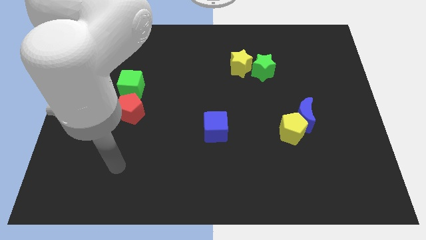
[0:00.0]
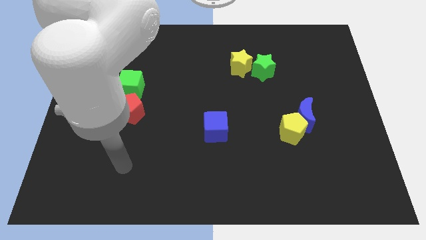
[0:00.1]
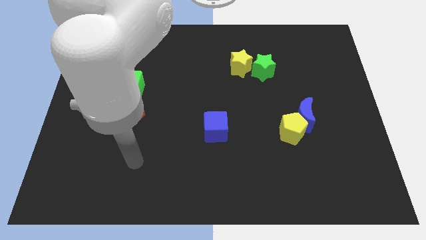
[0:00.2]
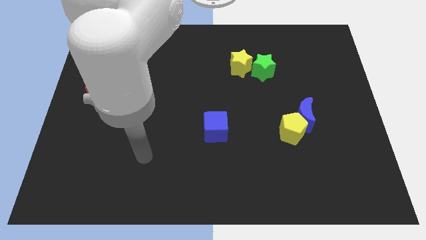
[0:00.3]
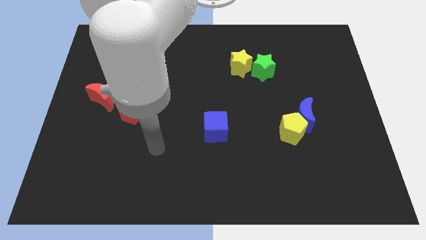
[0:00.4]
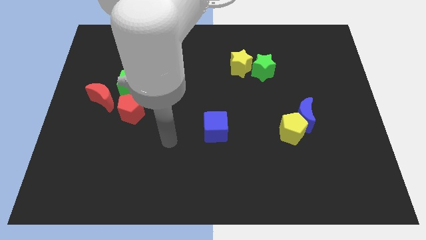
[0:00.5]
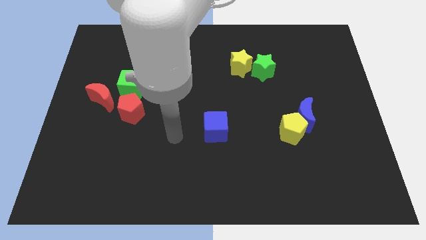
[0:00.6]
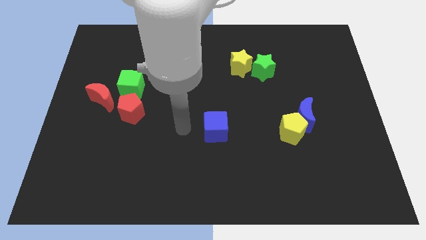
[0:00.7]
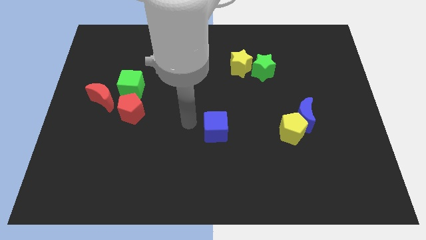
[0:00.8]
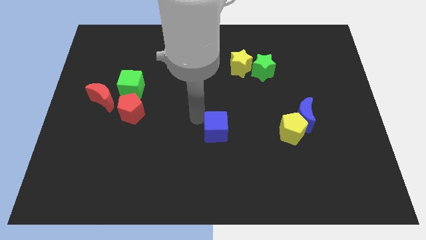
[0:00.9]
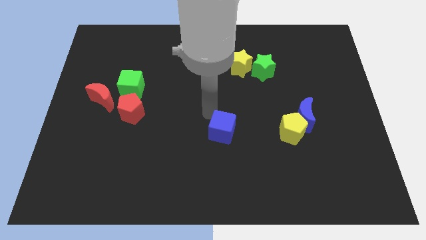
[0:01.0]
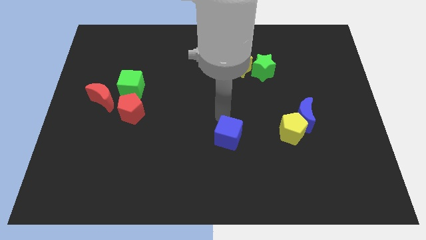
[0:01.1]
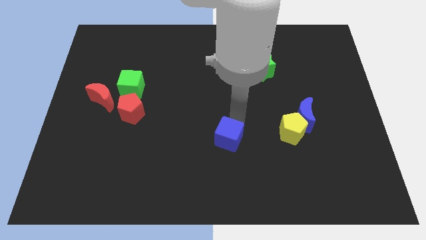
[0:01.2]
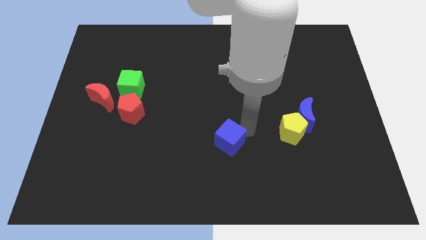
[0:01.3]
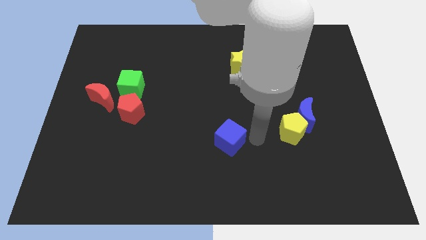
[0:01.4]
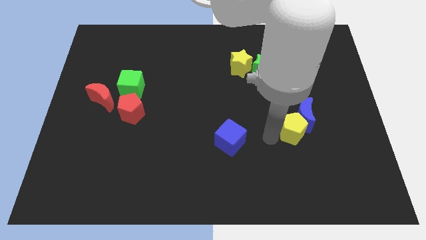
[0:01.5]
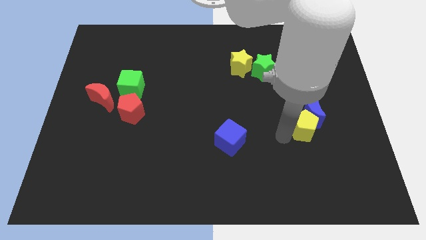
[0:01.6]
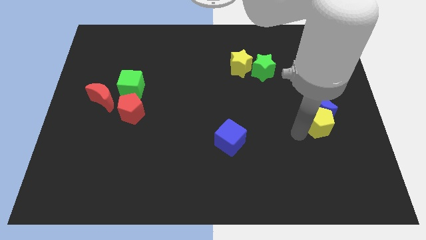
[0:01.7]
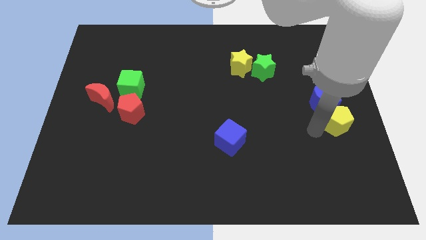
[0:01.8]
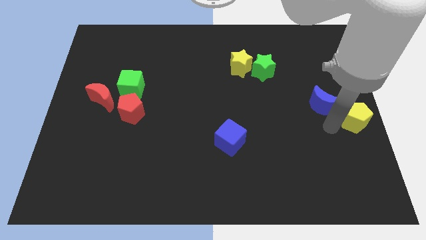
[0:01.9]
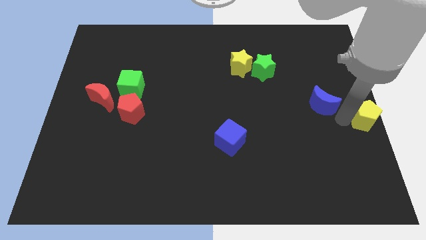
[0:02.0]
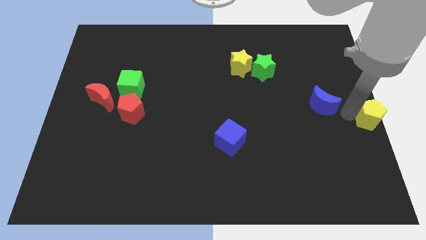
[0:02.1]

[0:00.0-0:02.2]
separate the blue moon from the yellow pentagon

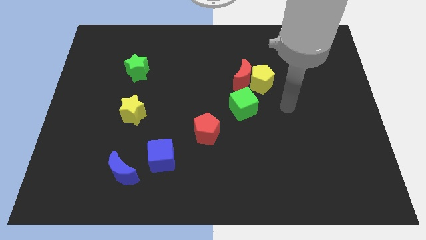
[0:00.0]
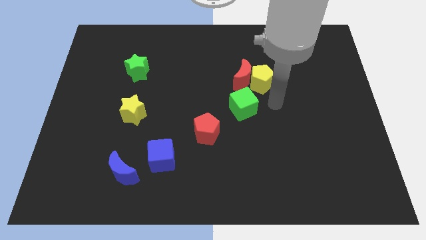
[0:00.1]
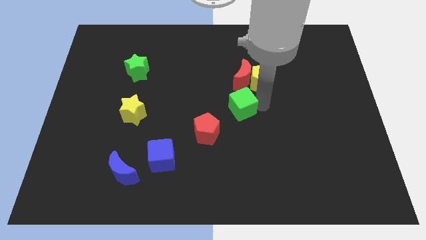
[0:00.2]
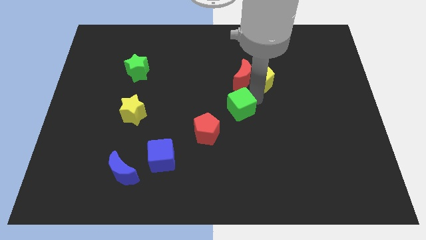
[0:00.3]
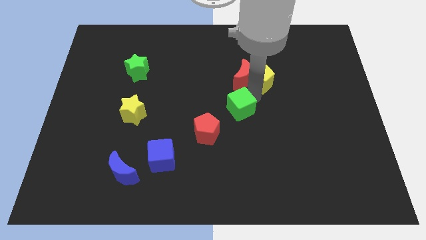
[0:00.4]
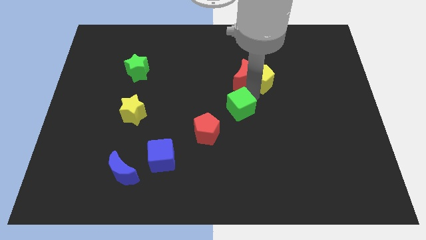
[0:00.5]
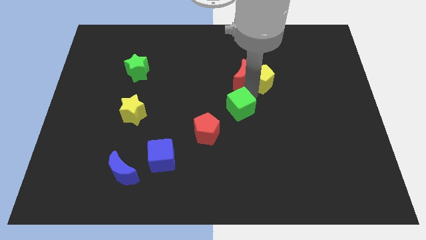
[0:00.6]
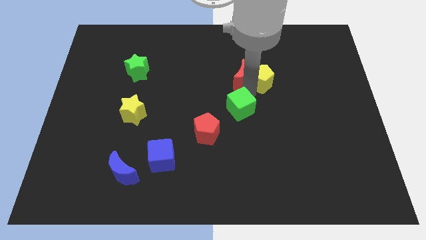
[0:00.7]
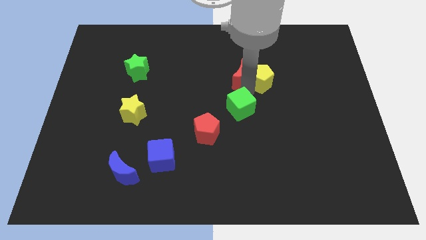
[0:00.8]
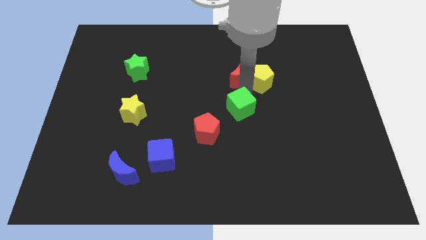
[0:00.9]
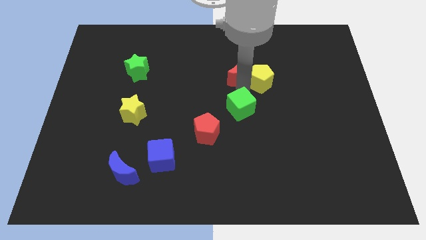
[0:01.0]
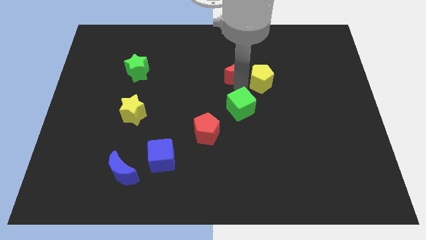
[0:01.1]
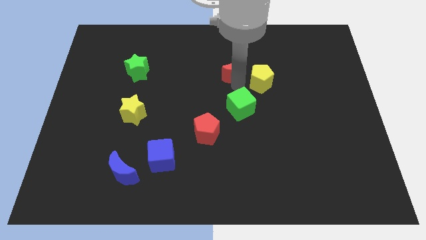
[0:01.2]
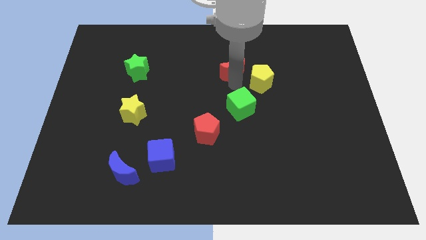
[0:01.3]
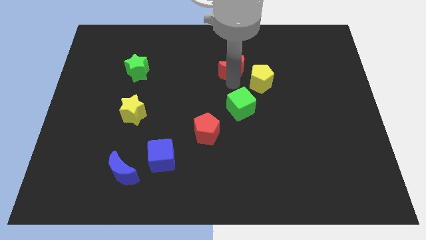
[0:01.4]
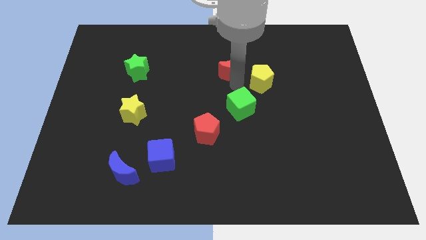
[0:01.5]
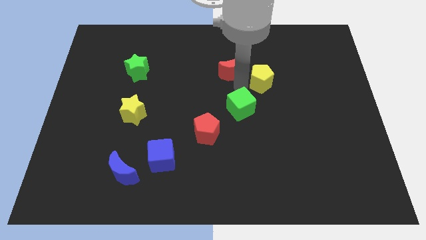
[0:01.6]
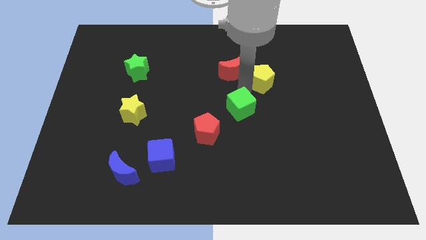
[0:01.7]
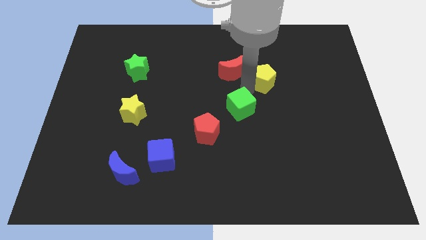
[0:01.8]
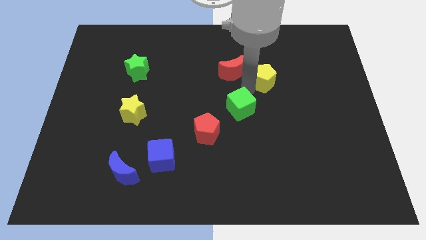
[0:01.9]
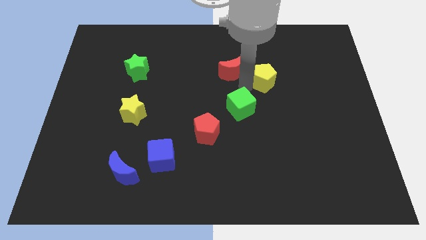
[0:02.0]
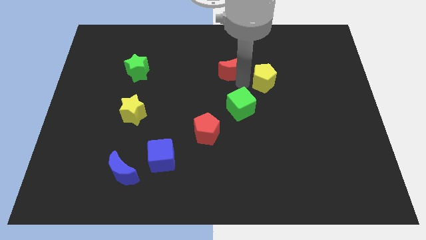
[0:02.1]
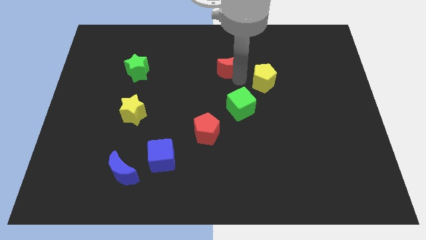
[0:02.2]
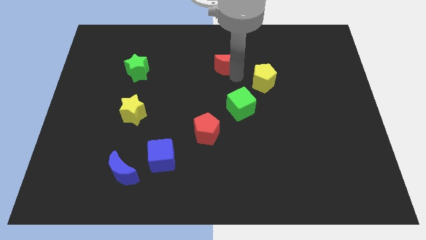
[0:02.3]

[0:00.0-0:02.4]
pull the red moon apart from the yellow pentagon and green cube

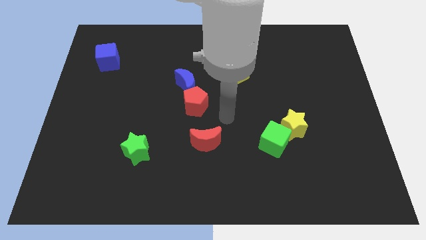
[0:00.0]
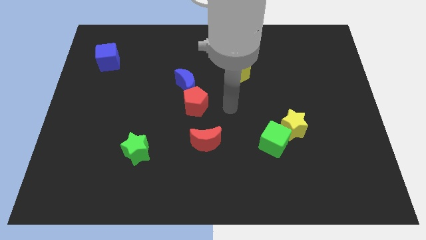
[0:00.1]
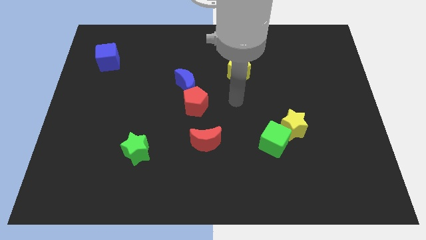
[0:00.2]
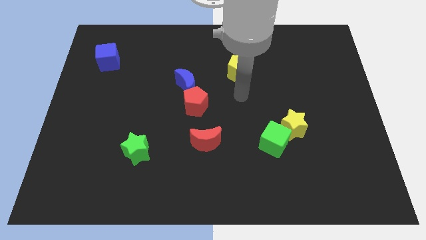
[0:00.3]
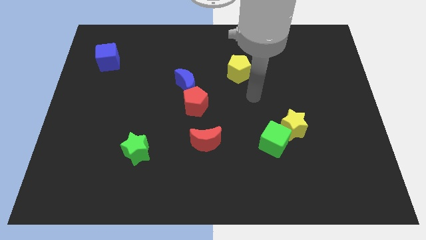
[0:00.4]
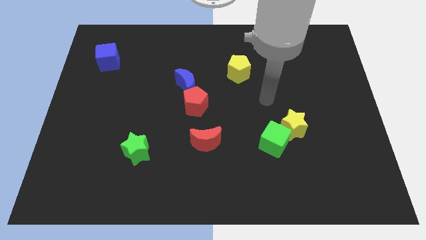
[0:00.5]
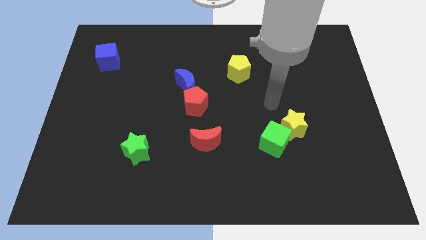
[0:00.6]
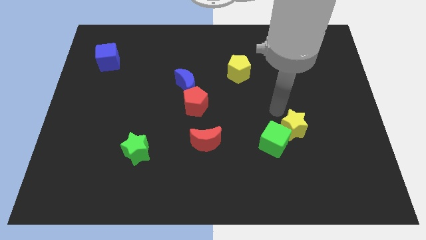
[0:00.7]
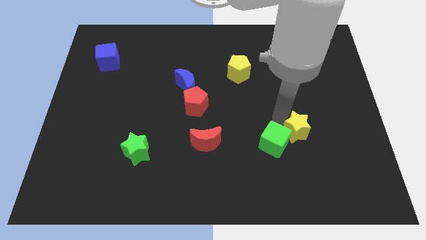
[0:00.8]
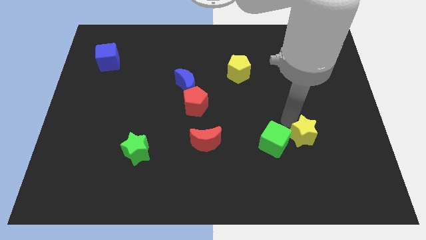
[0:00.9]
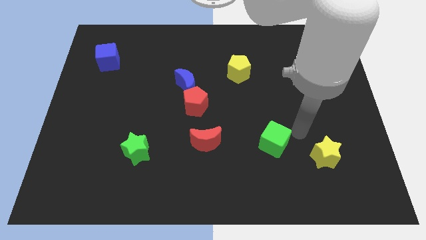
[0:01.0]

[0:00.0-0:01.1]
separate the green cube from the yellow star

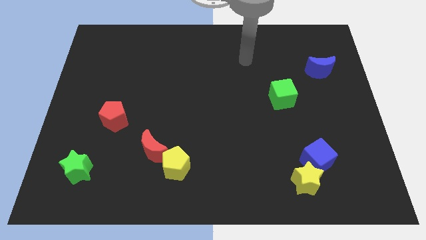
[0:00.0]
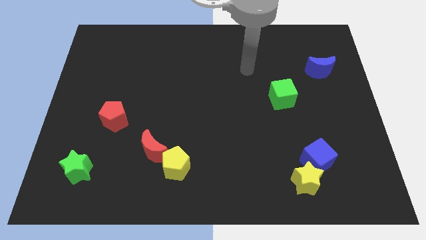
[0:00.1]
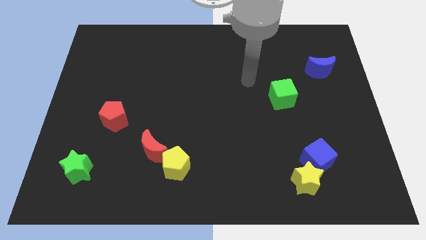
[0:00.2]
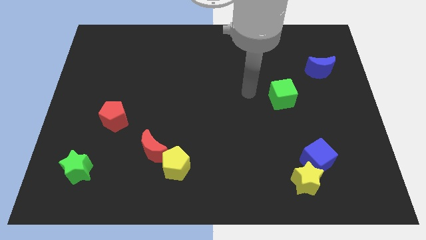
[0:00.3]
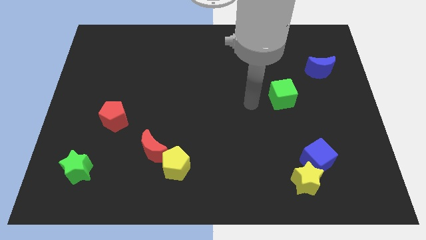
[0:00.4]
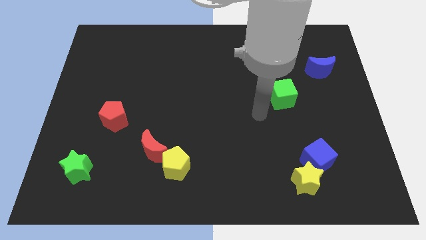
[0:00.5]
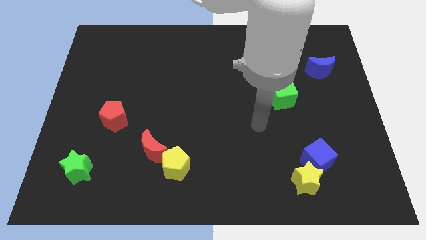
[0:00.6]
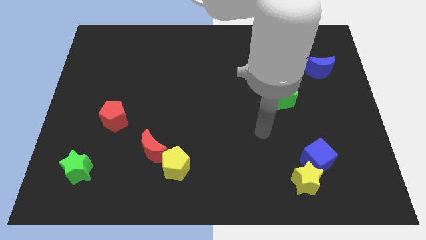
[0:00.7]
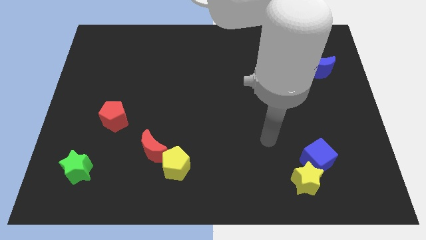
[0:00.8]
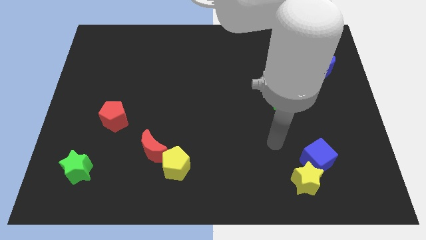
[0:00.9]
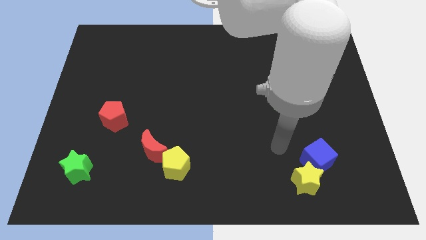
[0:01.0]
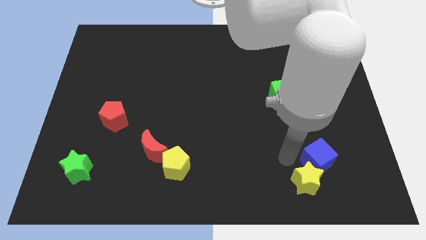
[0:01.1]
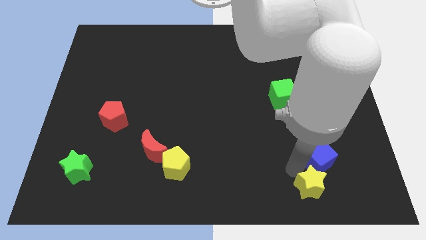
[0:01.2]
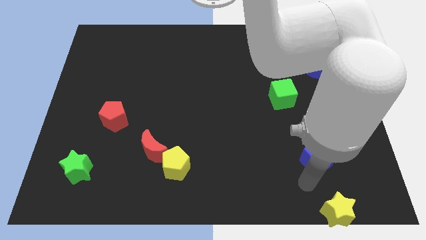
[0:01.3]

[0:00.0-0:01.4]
separate the blue cube from the yellow star

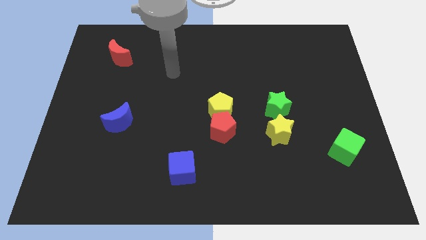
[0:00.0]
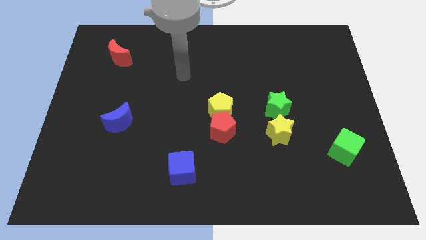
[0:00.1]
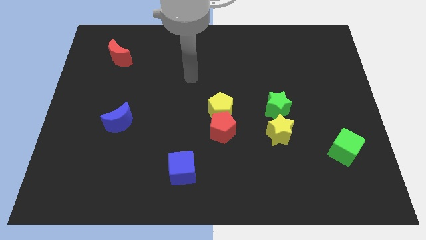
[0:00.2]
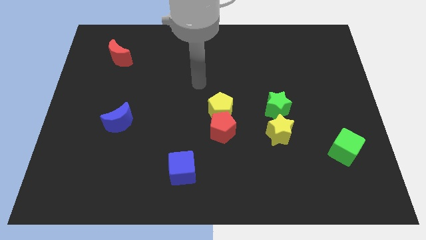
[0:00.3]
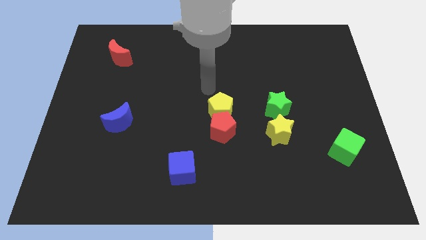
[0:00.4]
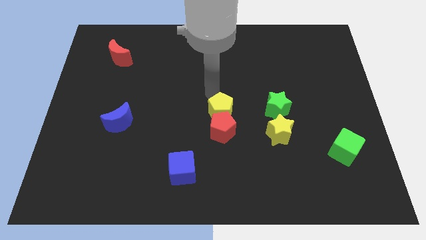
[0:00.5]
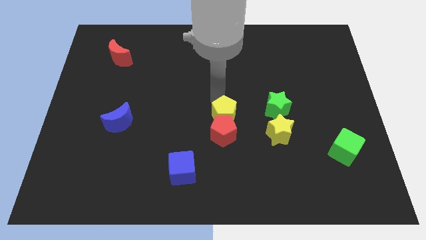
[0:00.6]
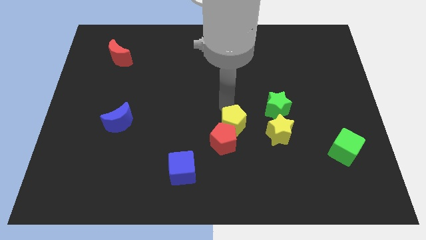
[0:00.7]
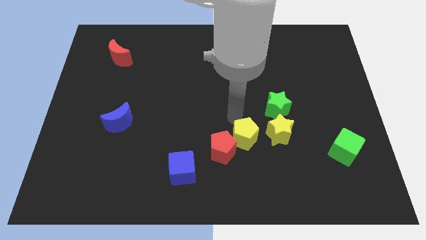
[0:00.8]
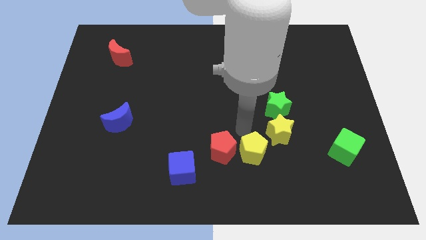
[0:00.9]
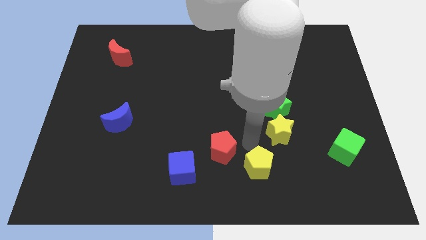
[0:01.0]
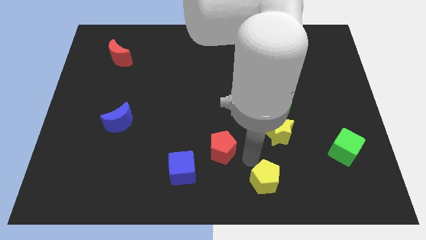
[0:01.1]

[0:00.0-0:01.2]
pull the red pentagon apart from the yellow pentagon

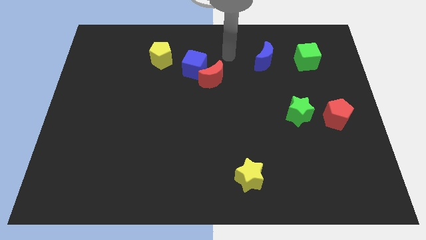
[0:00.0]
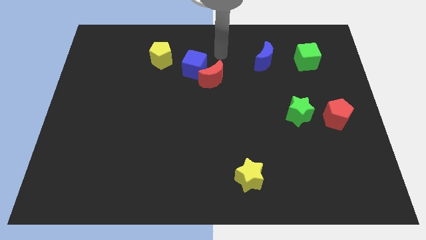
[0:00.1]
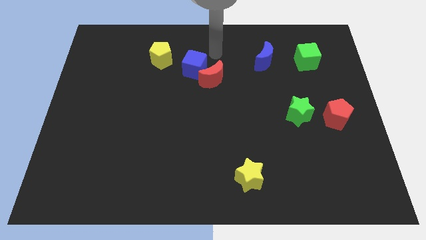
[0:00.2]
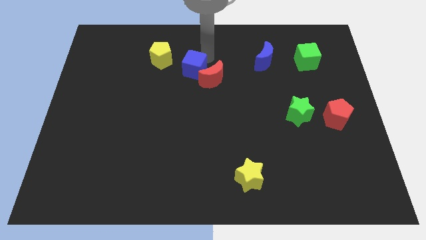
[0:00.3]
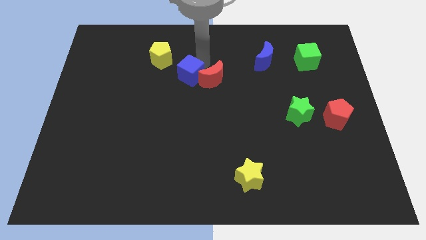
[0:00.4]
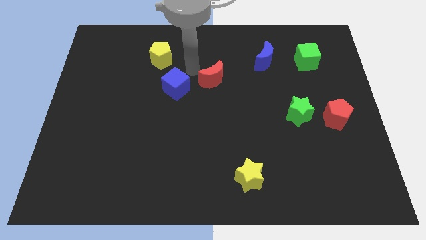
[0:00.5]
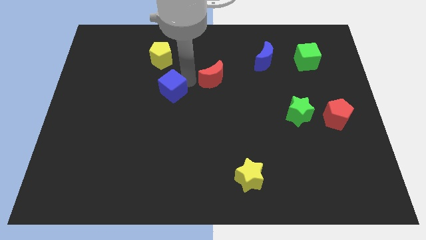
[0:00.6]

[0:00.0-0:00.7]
separate the red moon from the blue cube

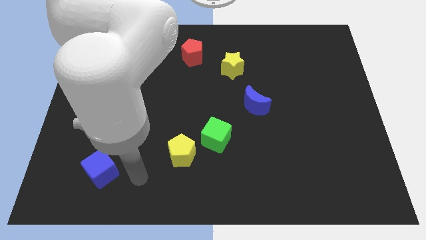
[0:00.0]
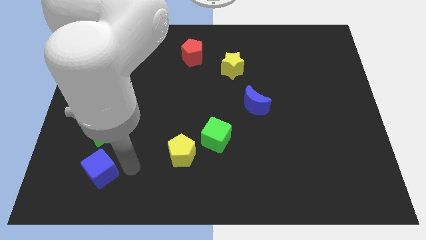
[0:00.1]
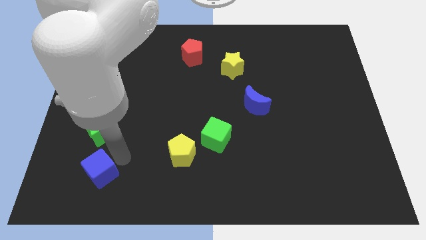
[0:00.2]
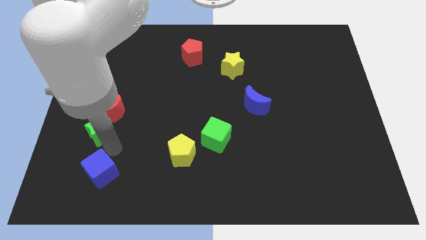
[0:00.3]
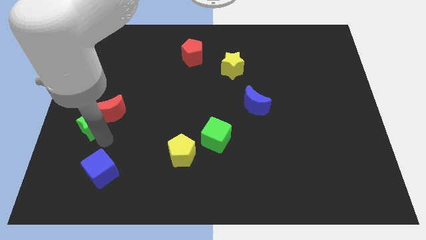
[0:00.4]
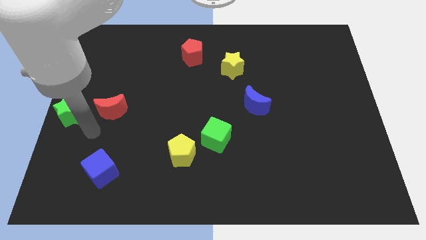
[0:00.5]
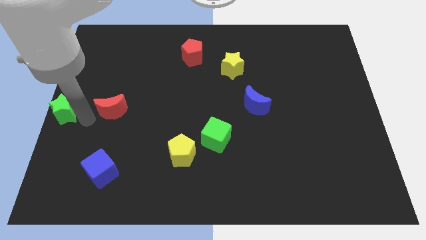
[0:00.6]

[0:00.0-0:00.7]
pull the red moon apart from the green star
